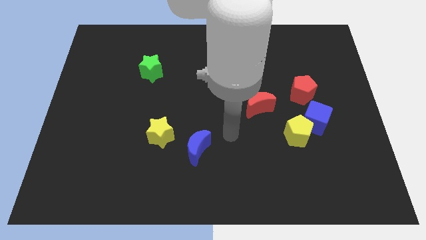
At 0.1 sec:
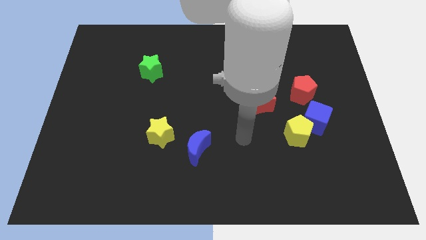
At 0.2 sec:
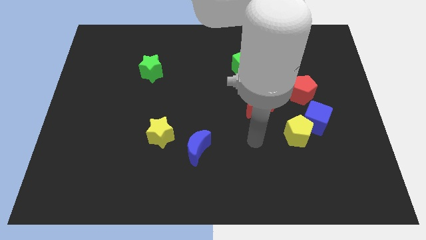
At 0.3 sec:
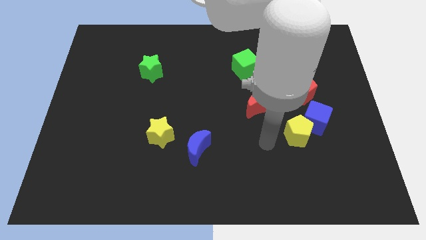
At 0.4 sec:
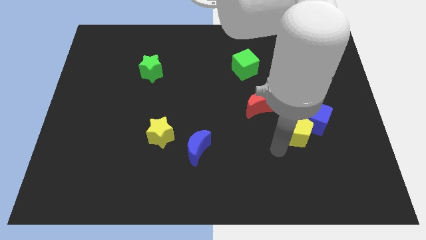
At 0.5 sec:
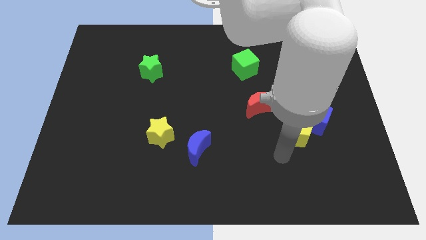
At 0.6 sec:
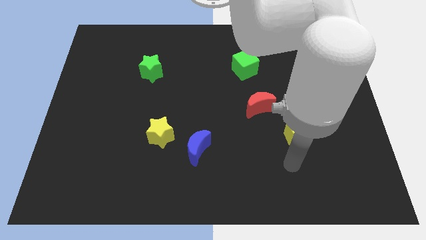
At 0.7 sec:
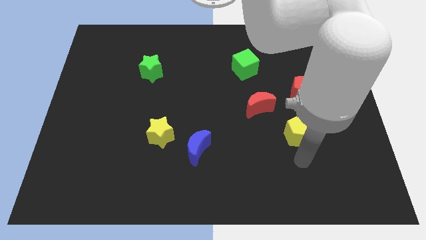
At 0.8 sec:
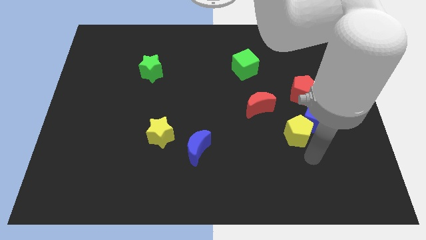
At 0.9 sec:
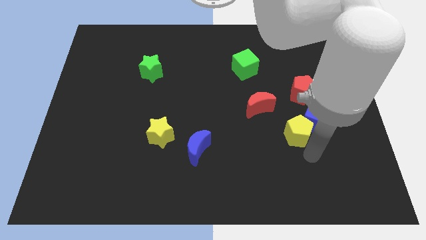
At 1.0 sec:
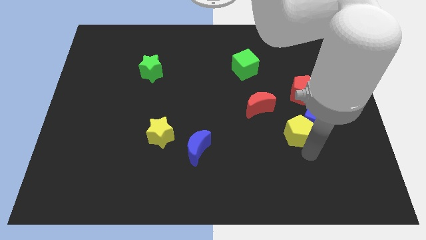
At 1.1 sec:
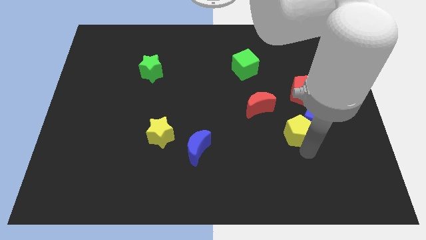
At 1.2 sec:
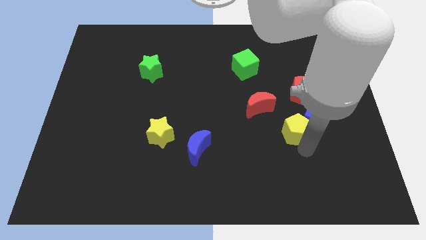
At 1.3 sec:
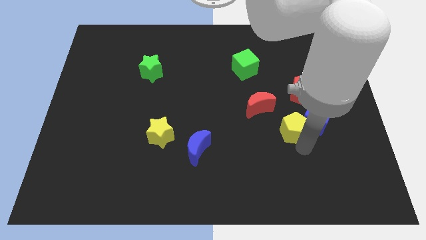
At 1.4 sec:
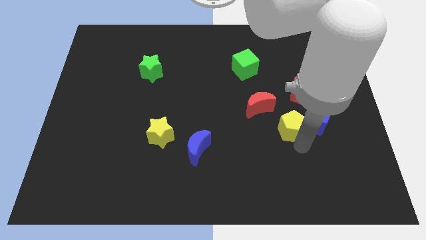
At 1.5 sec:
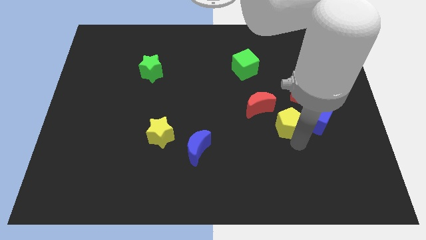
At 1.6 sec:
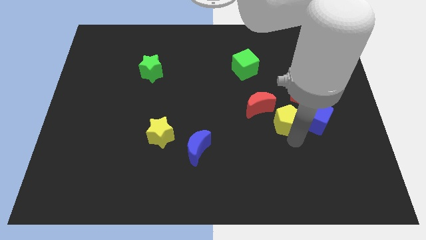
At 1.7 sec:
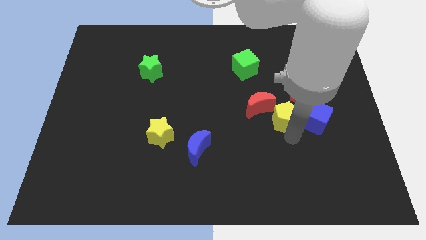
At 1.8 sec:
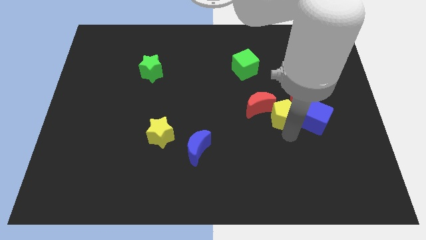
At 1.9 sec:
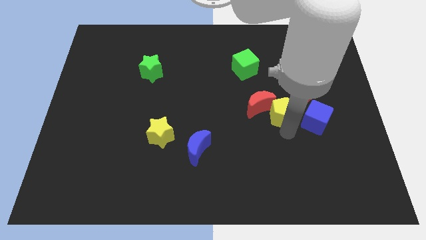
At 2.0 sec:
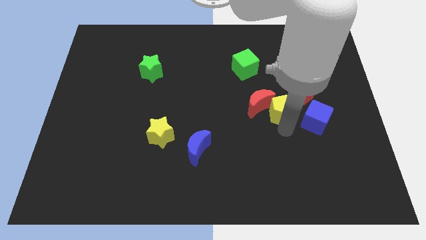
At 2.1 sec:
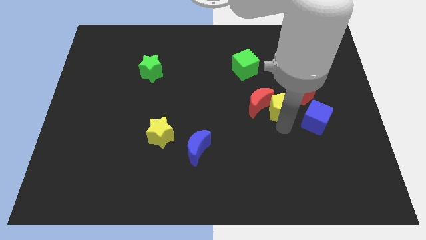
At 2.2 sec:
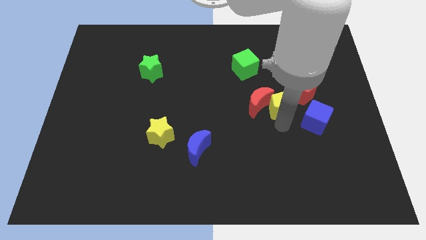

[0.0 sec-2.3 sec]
slightly push the yellow pentagon upwards and left

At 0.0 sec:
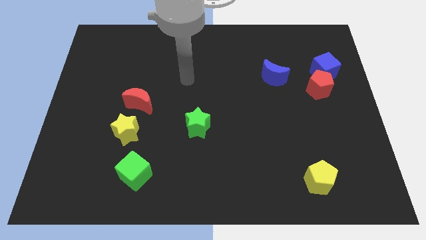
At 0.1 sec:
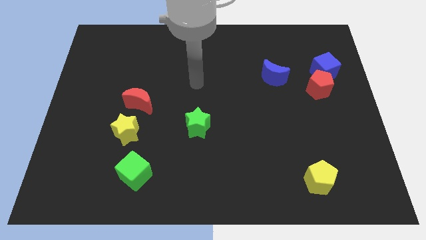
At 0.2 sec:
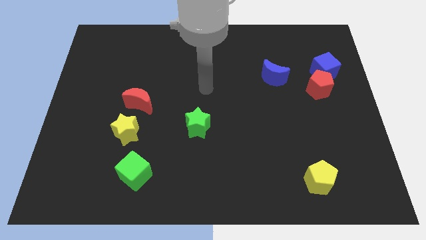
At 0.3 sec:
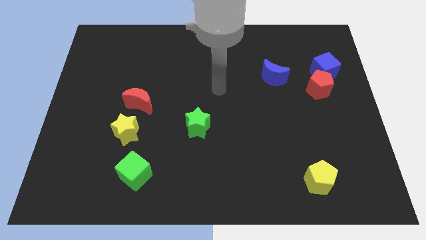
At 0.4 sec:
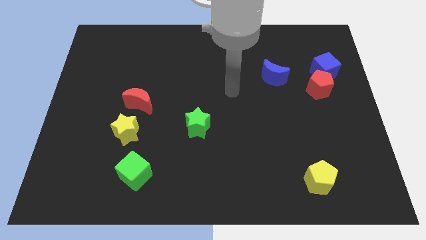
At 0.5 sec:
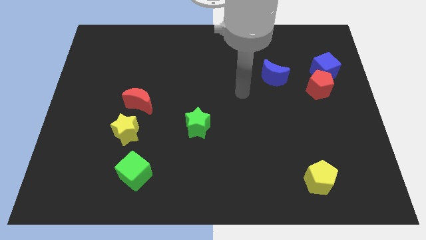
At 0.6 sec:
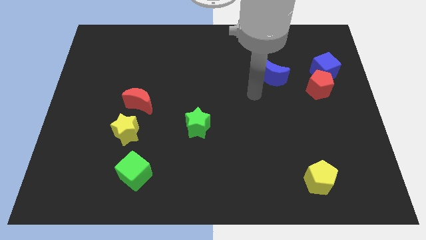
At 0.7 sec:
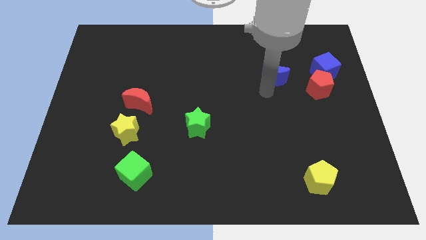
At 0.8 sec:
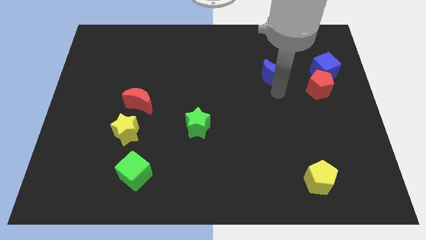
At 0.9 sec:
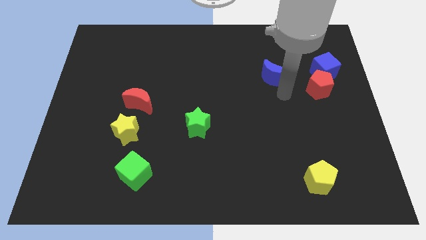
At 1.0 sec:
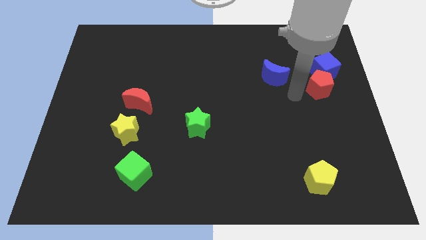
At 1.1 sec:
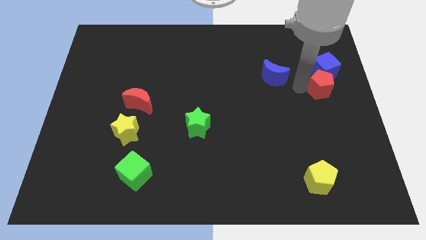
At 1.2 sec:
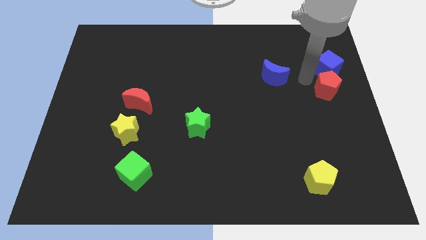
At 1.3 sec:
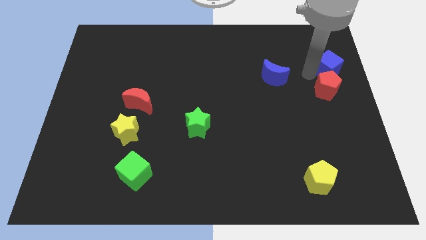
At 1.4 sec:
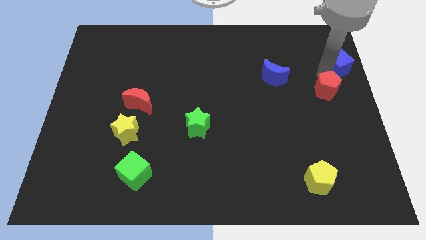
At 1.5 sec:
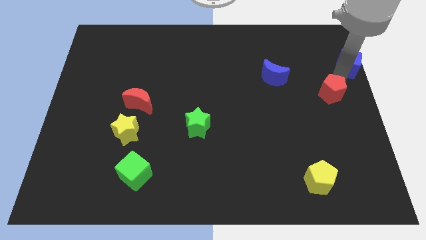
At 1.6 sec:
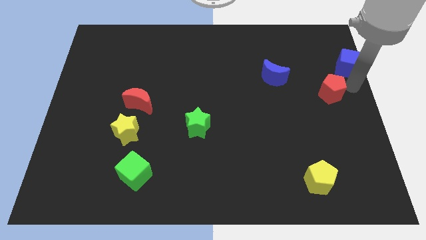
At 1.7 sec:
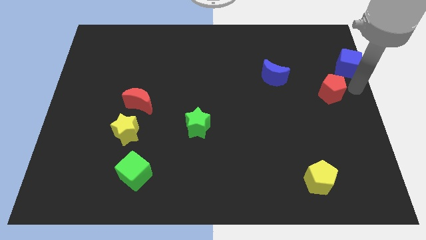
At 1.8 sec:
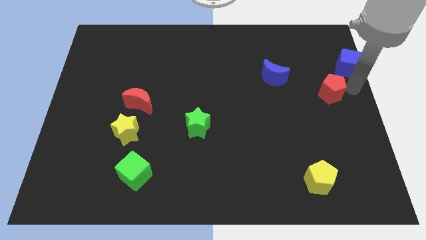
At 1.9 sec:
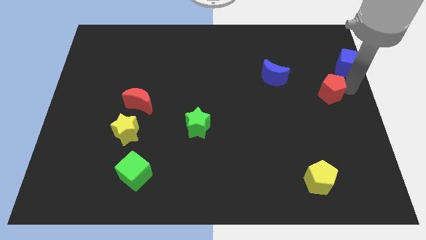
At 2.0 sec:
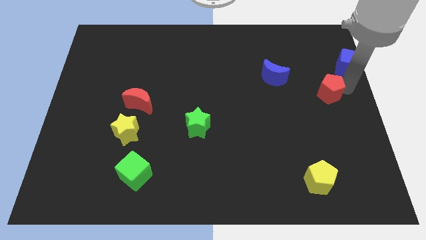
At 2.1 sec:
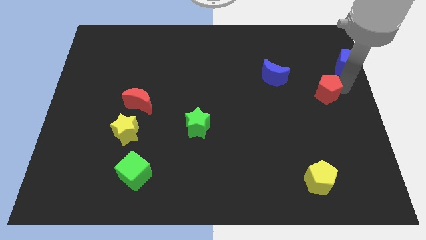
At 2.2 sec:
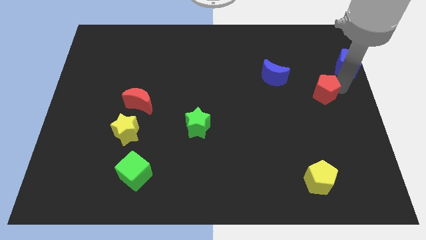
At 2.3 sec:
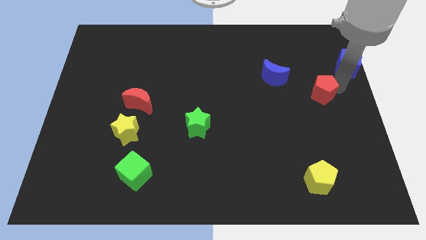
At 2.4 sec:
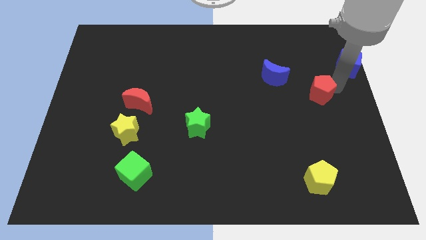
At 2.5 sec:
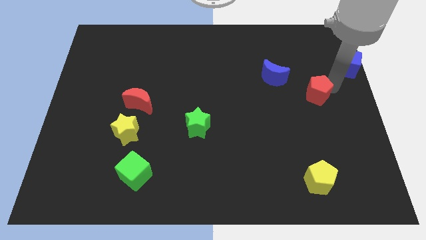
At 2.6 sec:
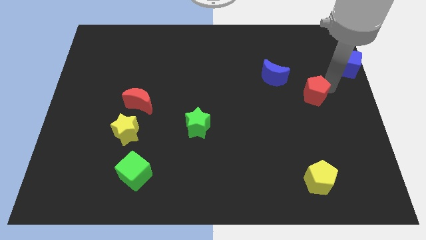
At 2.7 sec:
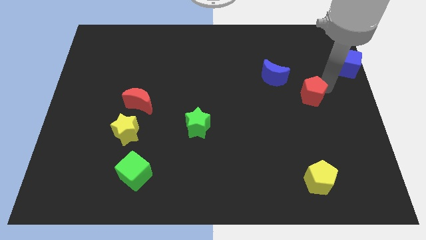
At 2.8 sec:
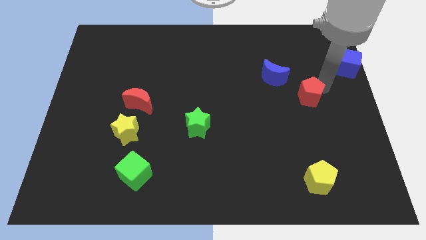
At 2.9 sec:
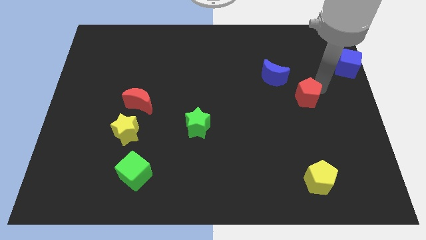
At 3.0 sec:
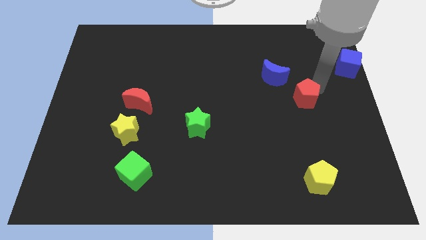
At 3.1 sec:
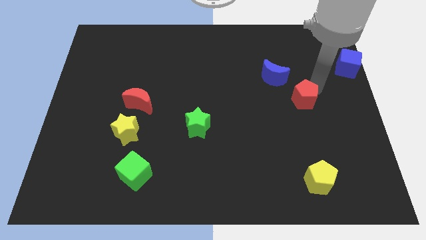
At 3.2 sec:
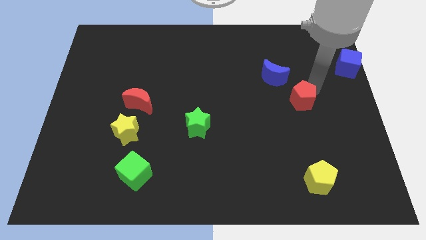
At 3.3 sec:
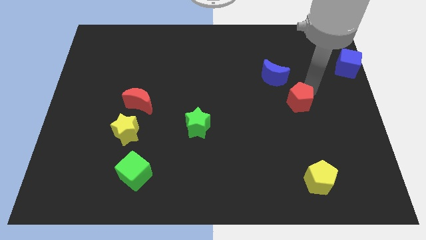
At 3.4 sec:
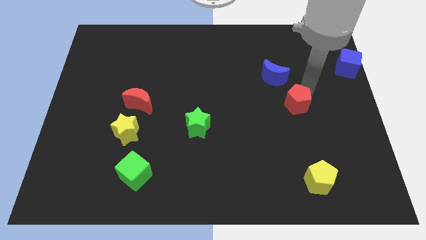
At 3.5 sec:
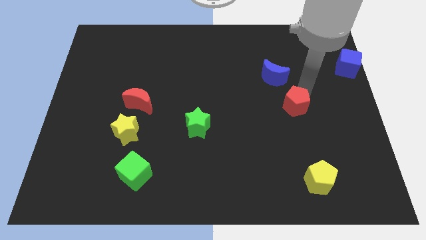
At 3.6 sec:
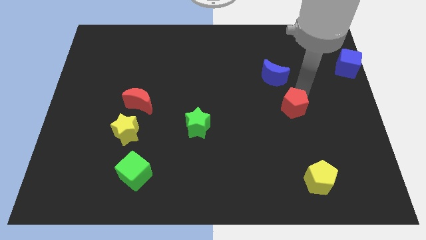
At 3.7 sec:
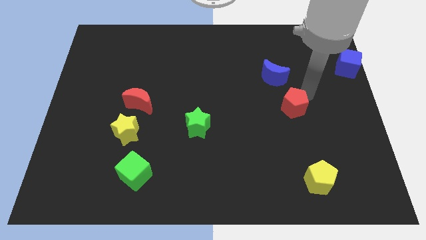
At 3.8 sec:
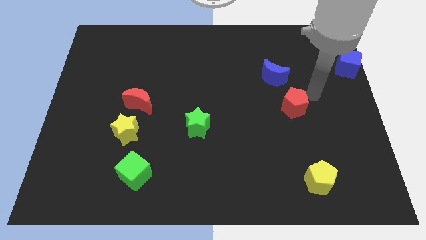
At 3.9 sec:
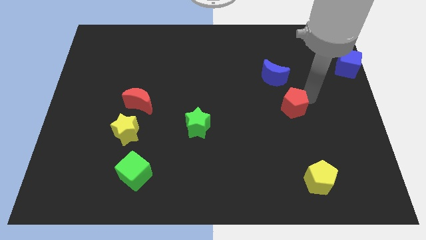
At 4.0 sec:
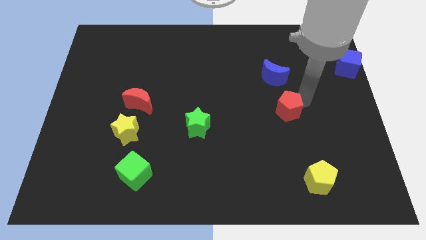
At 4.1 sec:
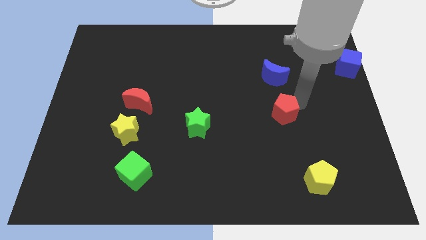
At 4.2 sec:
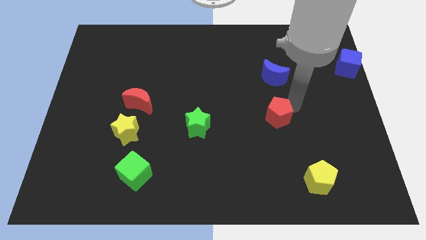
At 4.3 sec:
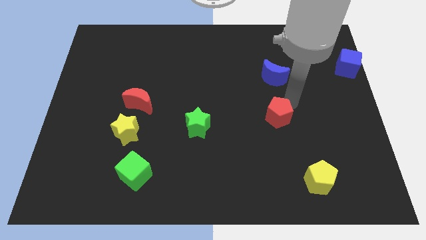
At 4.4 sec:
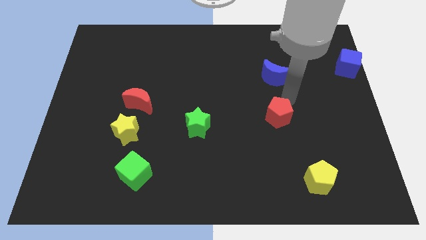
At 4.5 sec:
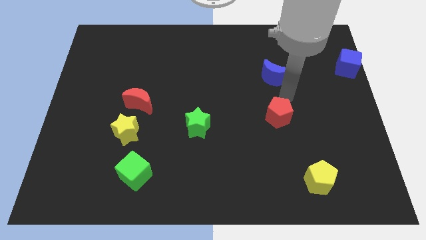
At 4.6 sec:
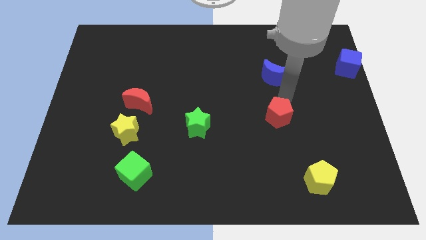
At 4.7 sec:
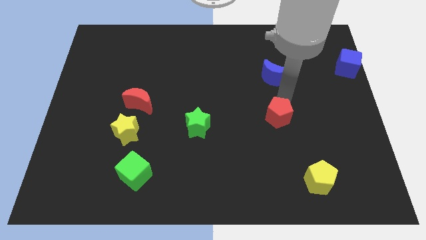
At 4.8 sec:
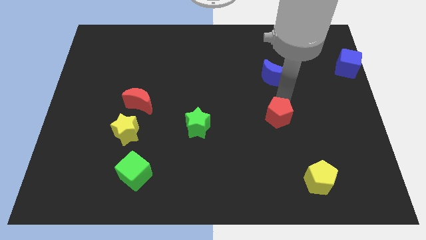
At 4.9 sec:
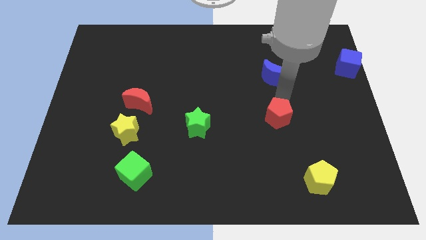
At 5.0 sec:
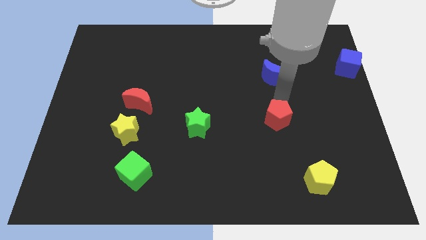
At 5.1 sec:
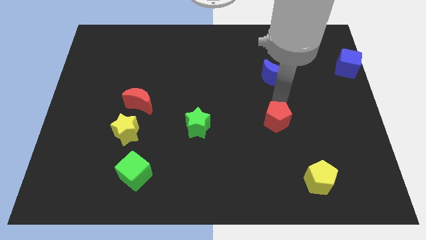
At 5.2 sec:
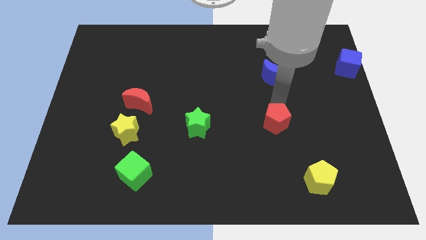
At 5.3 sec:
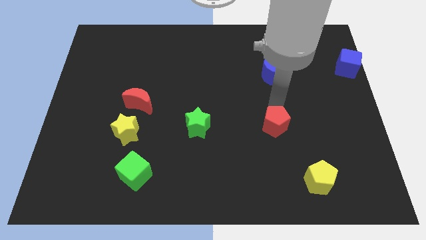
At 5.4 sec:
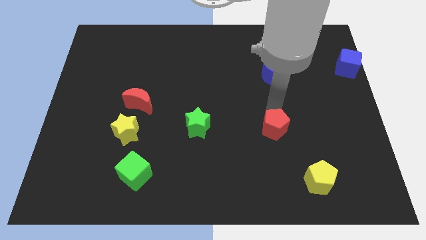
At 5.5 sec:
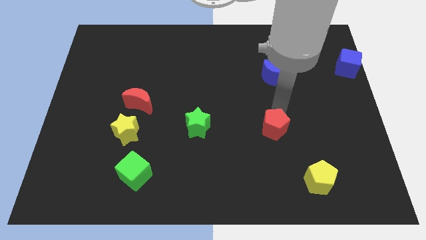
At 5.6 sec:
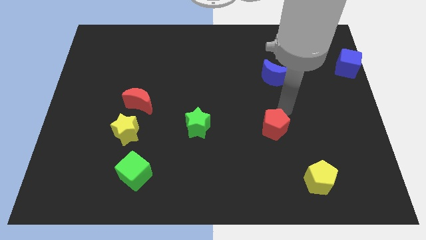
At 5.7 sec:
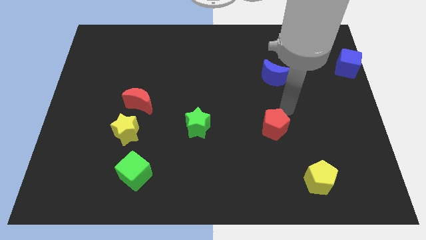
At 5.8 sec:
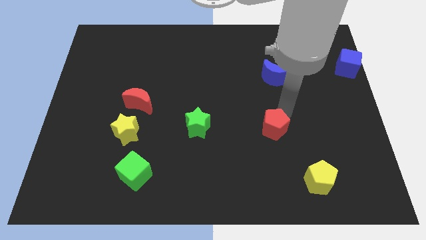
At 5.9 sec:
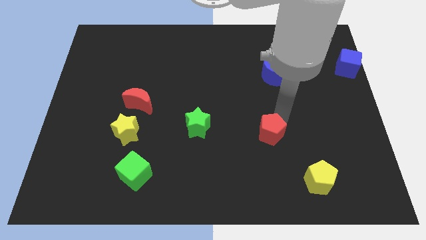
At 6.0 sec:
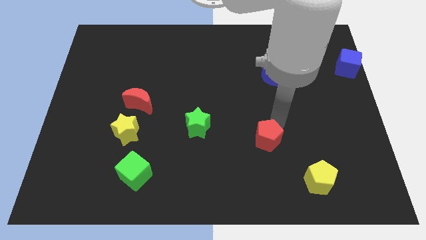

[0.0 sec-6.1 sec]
push the red pentagon down and left
